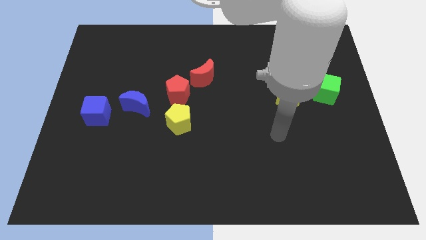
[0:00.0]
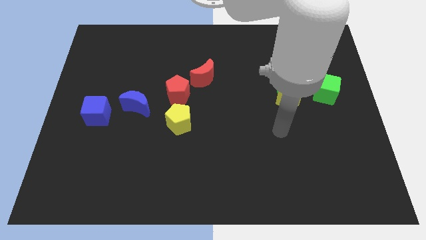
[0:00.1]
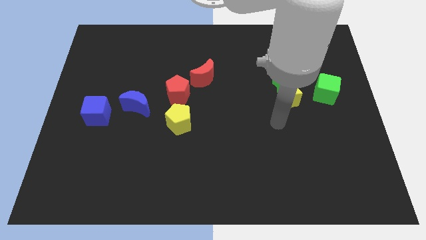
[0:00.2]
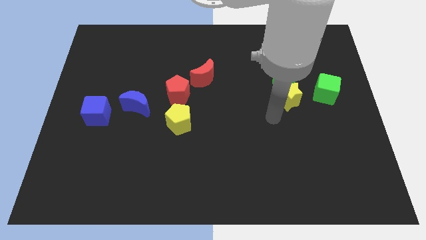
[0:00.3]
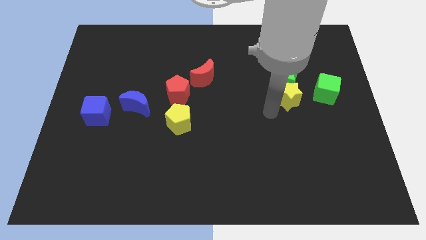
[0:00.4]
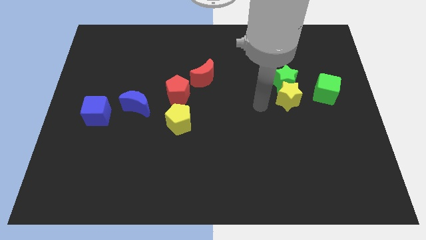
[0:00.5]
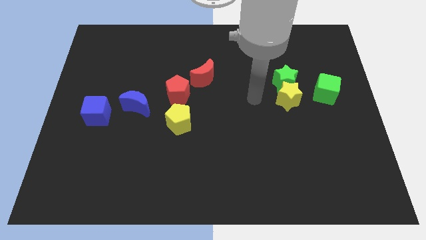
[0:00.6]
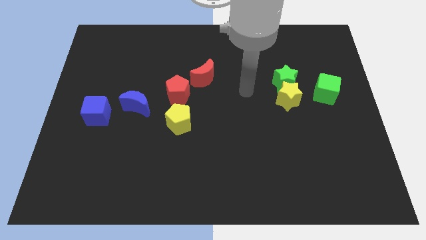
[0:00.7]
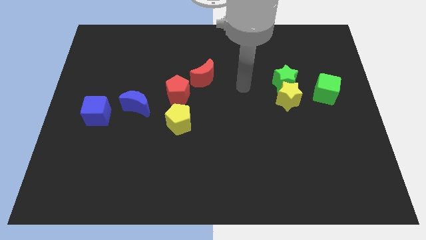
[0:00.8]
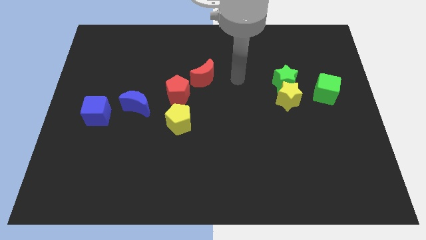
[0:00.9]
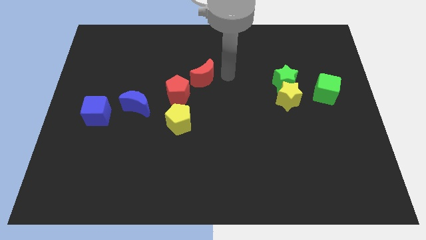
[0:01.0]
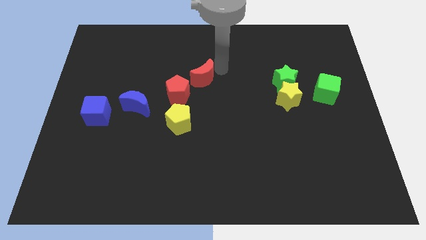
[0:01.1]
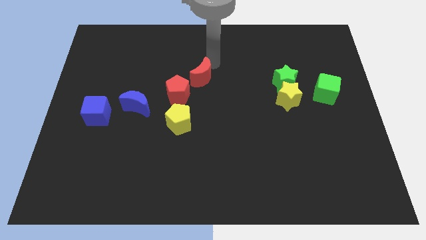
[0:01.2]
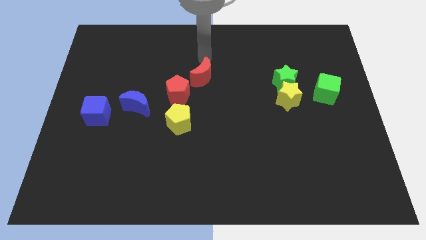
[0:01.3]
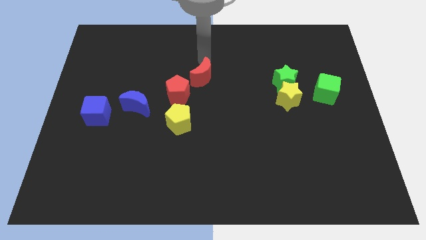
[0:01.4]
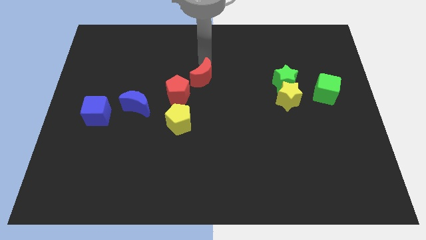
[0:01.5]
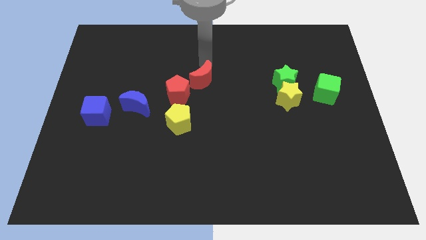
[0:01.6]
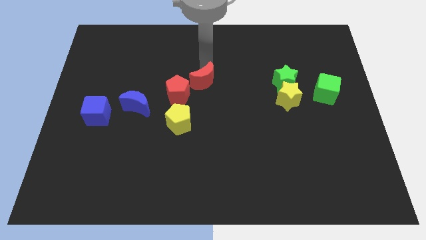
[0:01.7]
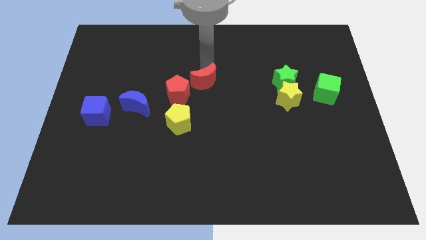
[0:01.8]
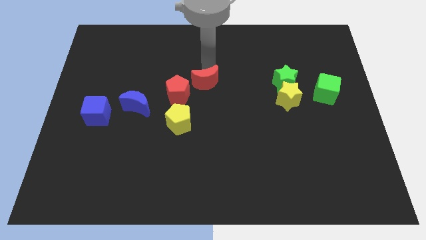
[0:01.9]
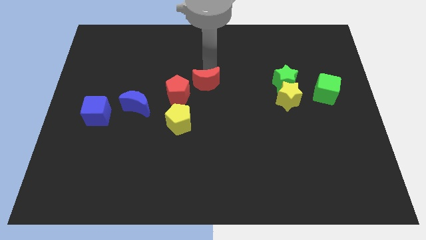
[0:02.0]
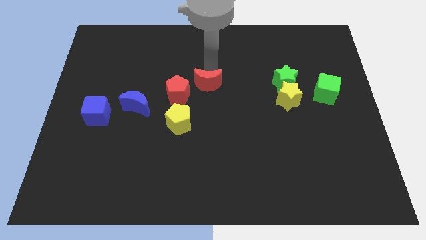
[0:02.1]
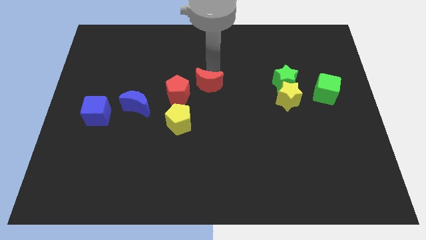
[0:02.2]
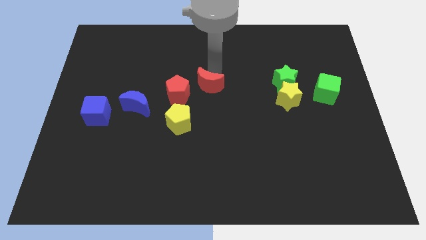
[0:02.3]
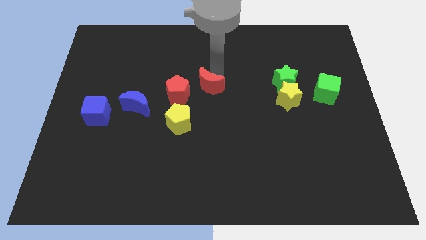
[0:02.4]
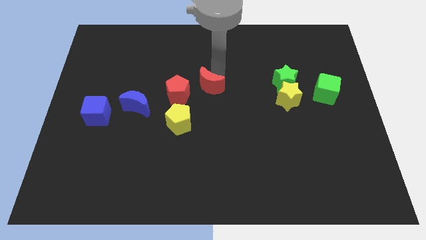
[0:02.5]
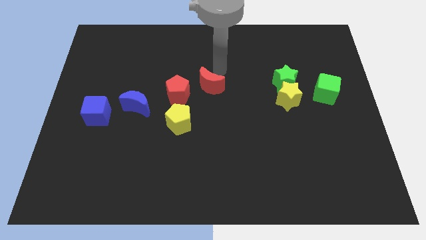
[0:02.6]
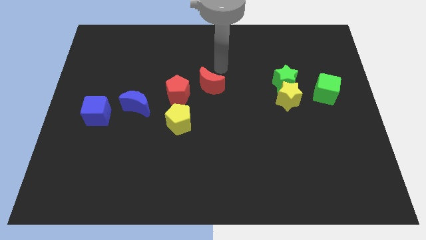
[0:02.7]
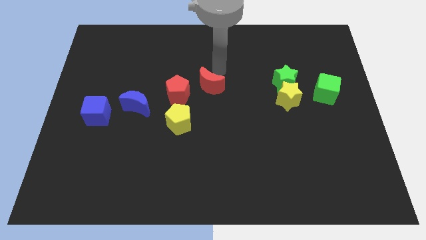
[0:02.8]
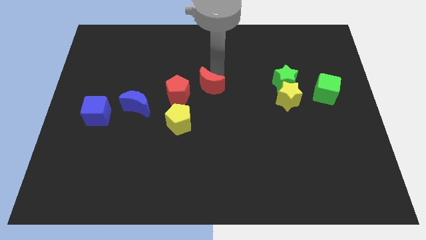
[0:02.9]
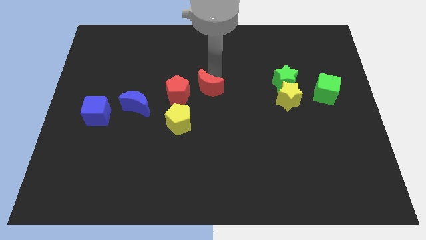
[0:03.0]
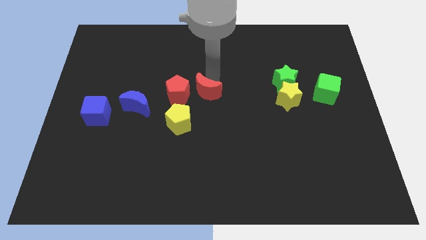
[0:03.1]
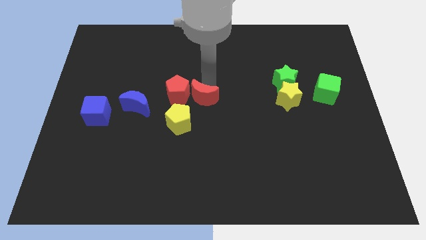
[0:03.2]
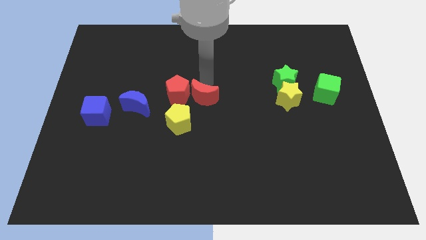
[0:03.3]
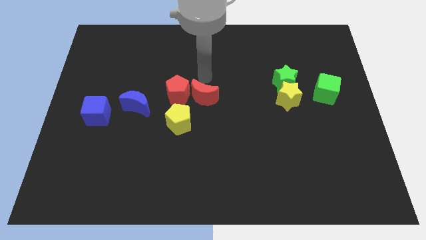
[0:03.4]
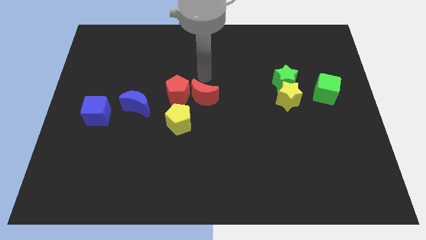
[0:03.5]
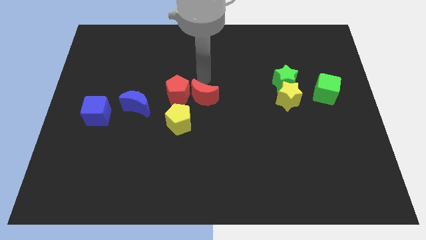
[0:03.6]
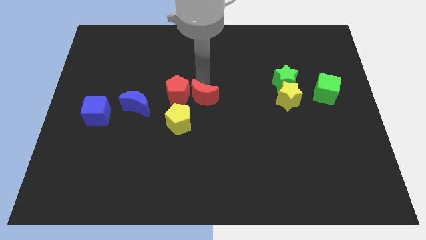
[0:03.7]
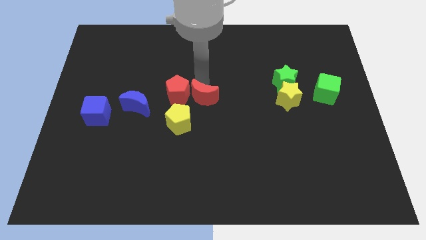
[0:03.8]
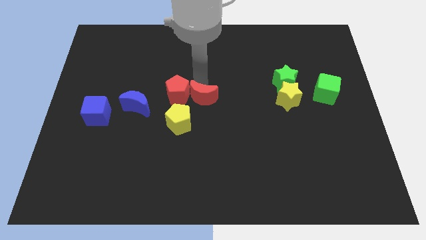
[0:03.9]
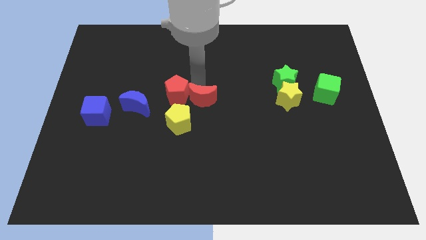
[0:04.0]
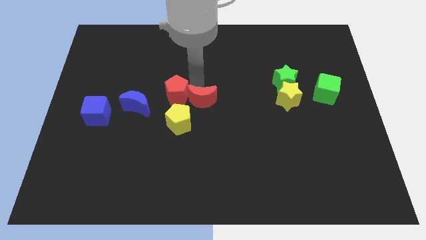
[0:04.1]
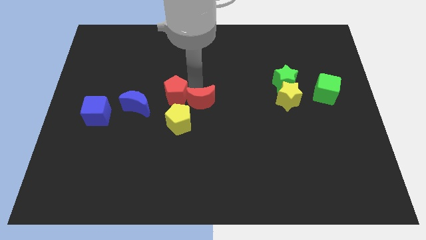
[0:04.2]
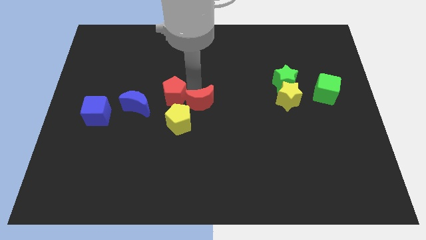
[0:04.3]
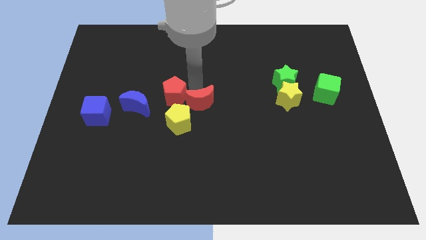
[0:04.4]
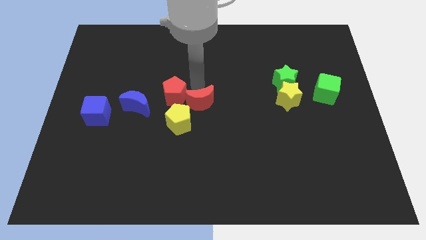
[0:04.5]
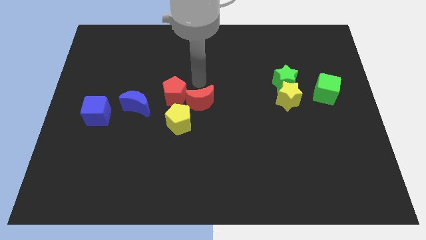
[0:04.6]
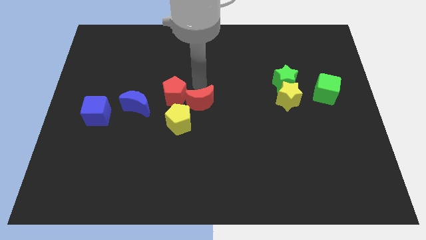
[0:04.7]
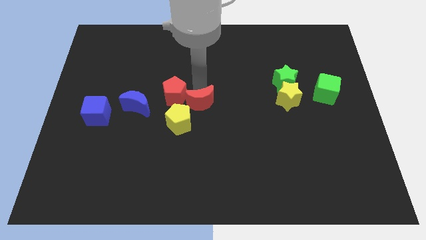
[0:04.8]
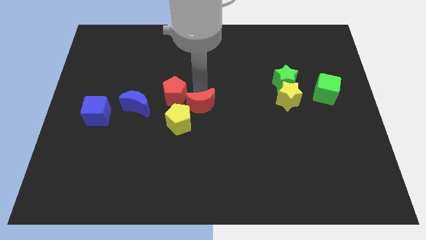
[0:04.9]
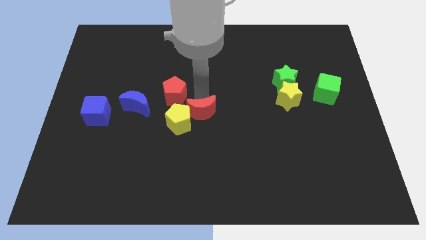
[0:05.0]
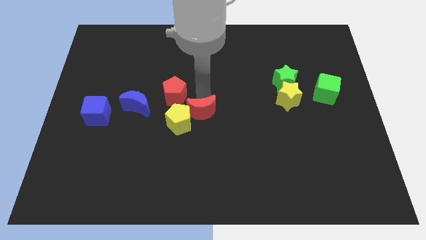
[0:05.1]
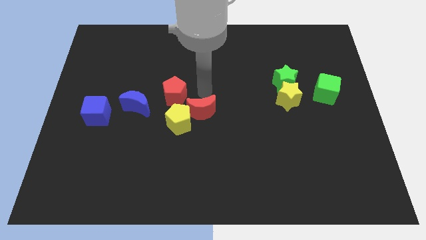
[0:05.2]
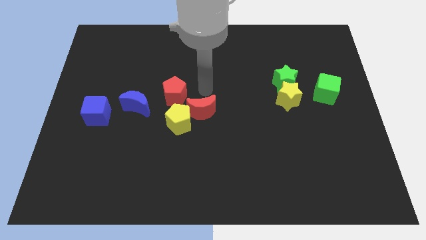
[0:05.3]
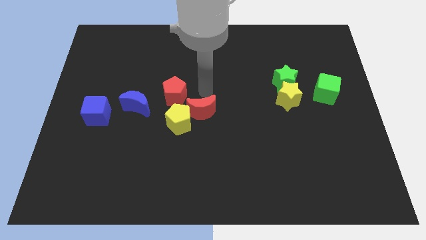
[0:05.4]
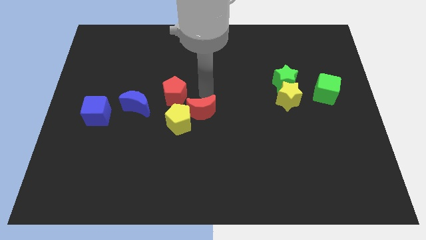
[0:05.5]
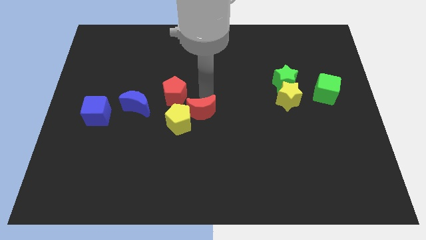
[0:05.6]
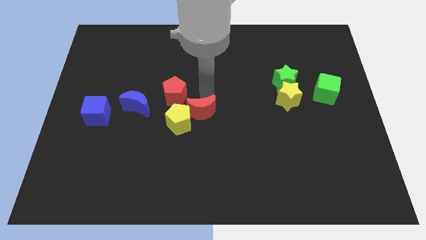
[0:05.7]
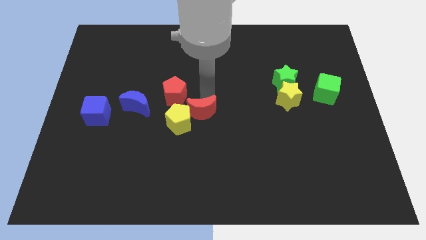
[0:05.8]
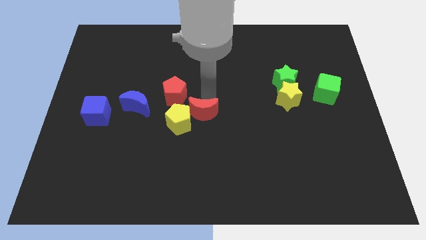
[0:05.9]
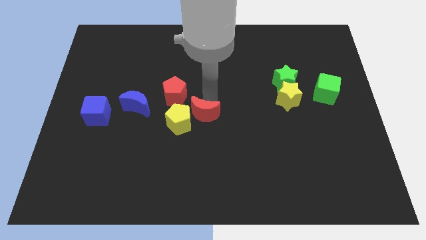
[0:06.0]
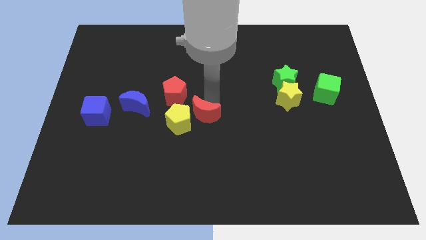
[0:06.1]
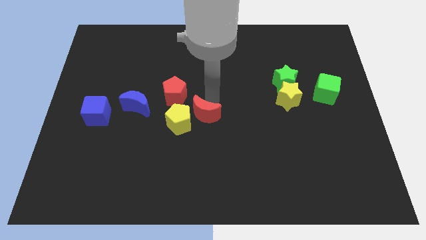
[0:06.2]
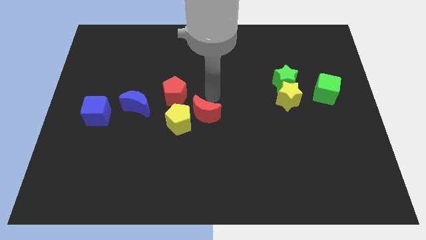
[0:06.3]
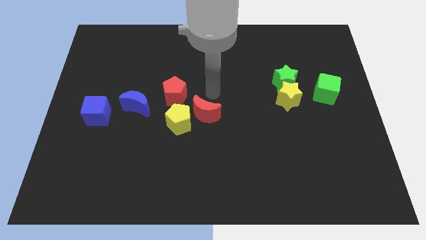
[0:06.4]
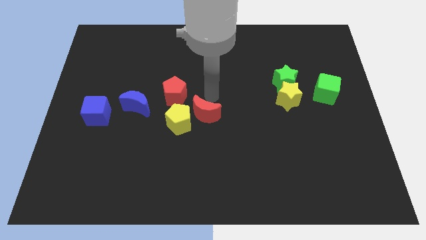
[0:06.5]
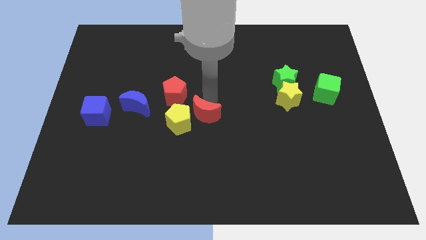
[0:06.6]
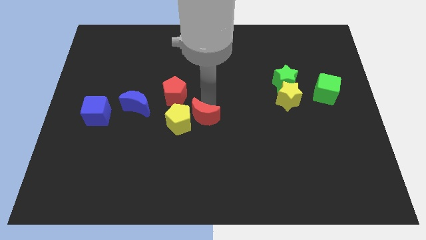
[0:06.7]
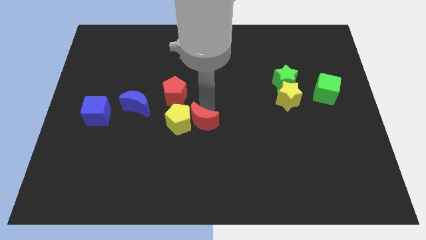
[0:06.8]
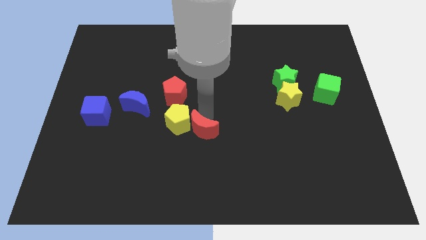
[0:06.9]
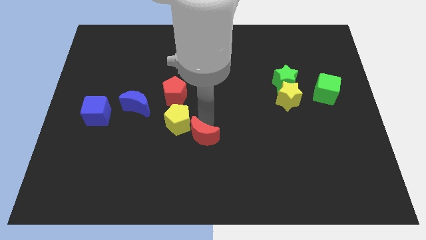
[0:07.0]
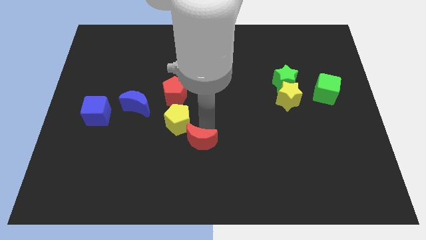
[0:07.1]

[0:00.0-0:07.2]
put the red moon to the bottom of the yellow pentagon
